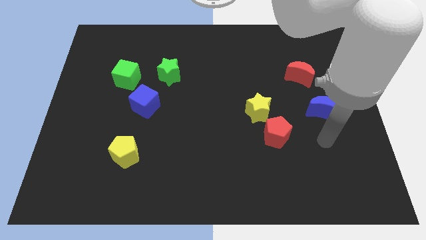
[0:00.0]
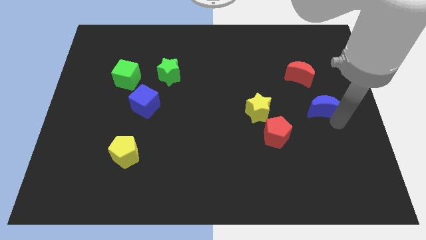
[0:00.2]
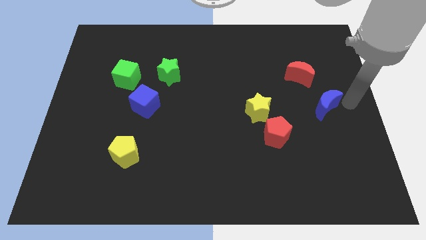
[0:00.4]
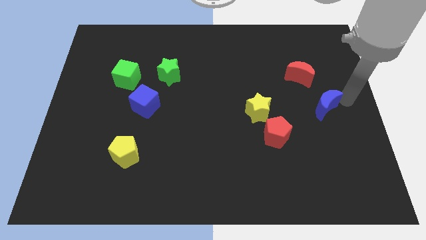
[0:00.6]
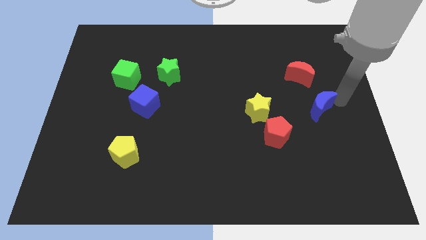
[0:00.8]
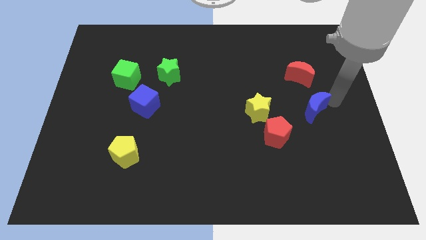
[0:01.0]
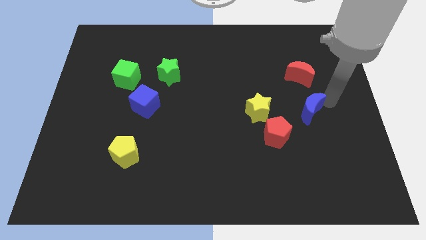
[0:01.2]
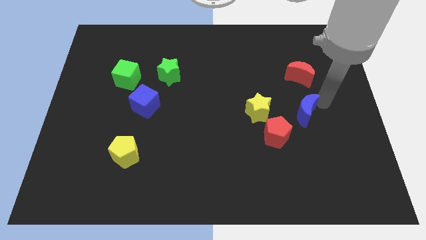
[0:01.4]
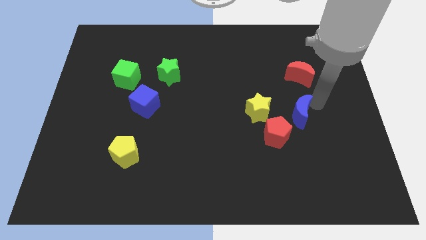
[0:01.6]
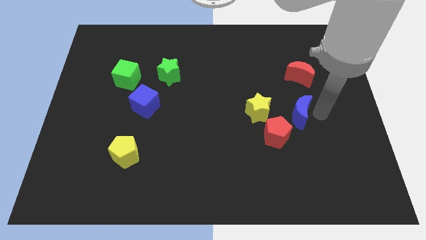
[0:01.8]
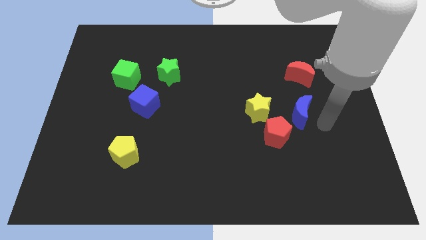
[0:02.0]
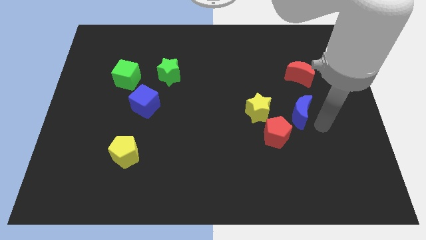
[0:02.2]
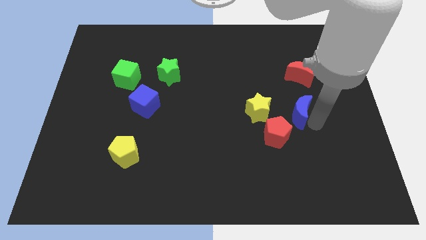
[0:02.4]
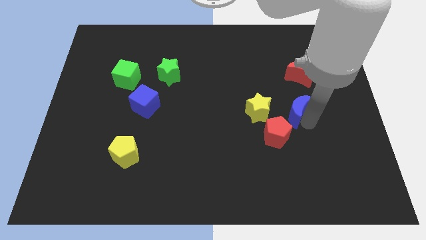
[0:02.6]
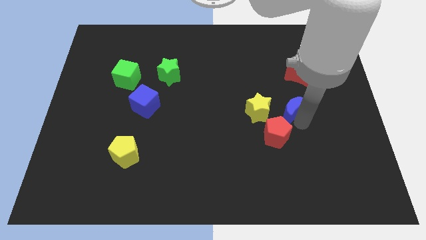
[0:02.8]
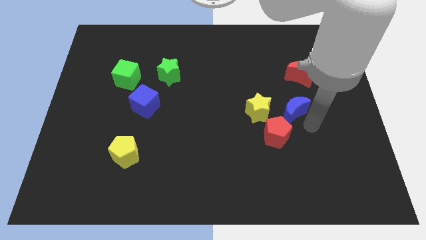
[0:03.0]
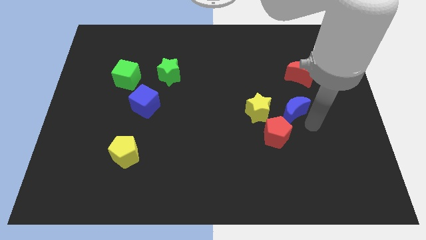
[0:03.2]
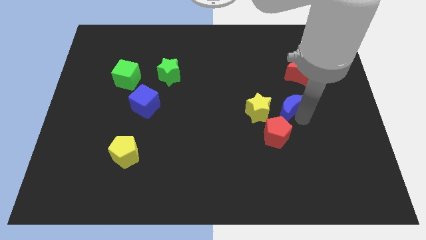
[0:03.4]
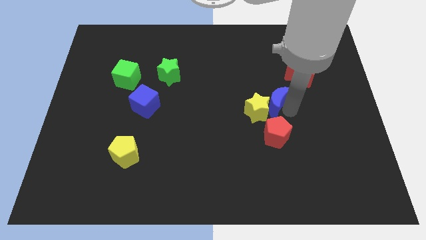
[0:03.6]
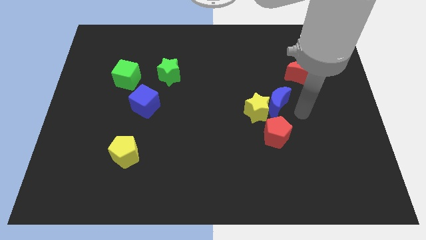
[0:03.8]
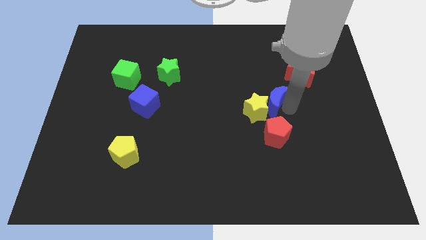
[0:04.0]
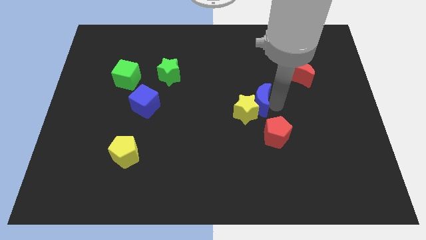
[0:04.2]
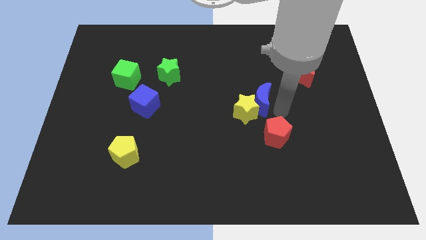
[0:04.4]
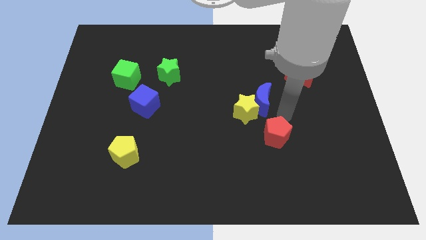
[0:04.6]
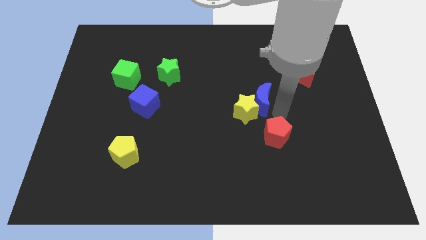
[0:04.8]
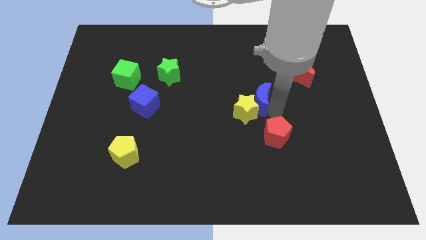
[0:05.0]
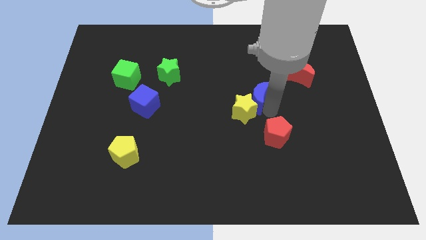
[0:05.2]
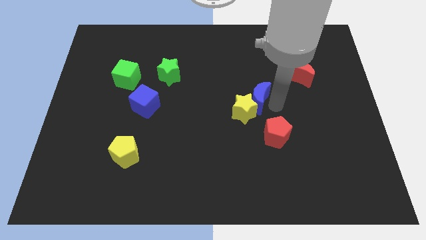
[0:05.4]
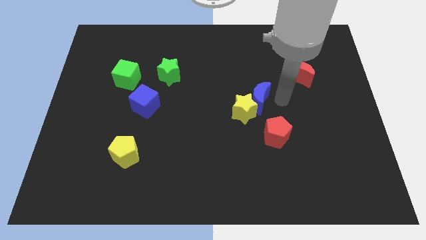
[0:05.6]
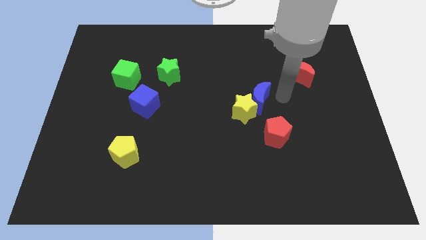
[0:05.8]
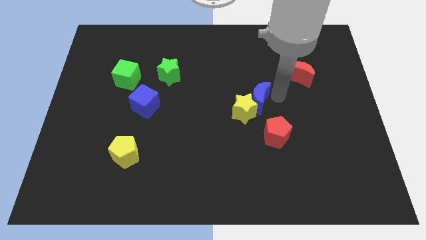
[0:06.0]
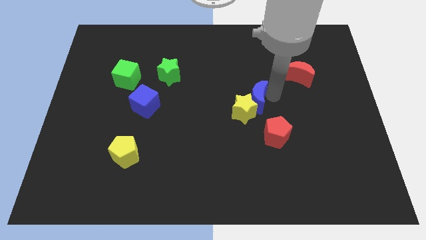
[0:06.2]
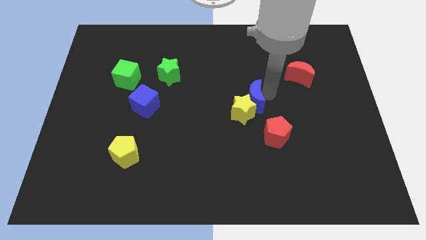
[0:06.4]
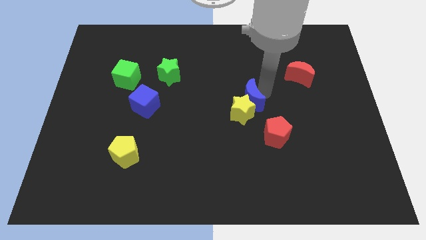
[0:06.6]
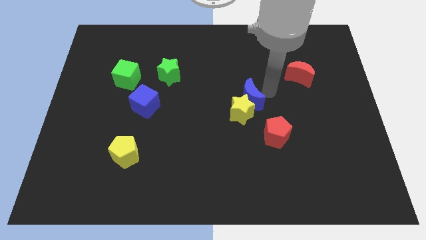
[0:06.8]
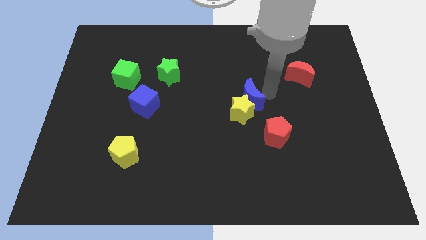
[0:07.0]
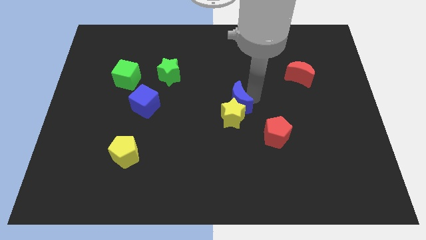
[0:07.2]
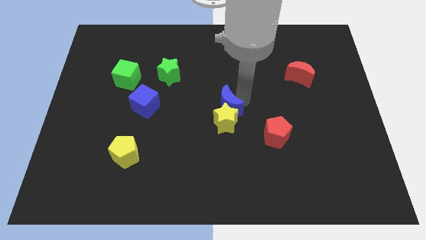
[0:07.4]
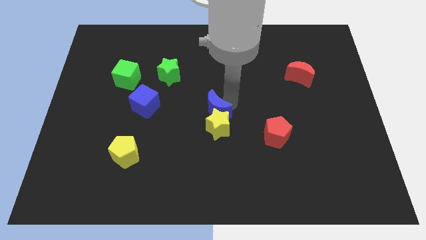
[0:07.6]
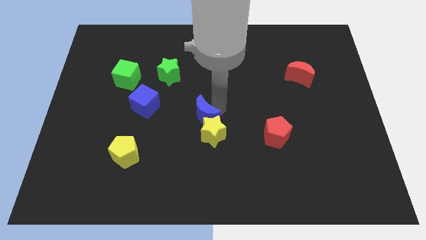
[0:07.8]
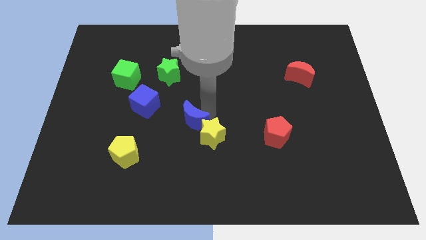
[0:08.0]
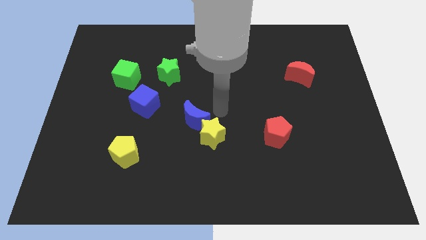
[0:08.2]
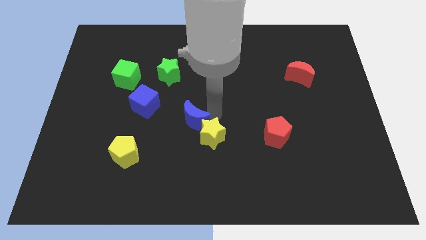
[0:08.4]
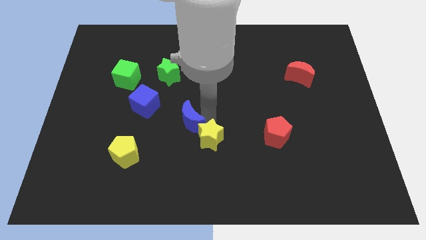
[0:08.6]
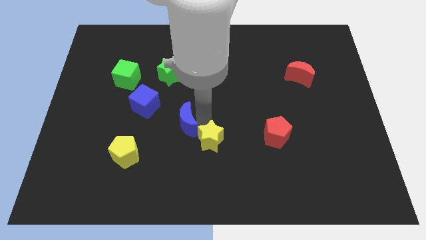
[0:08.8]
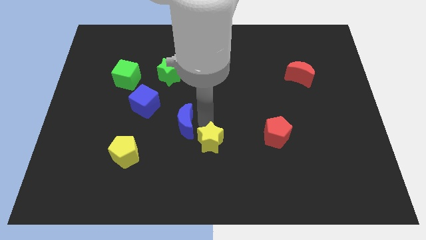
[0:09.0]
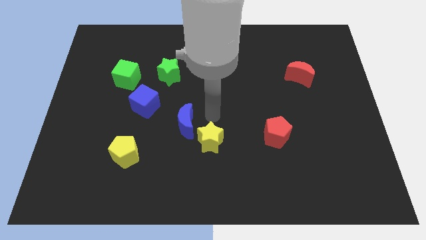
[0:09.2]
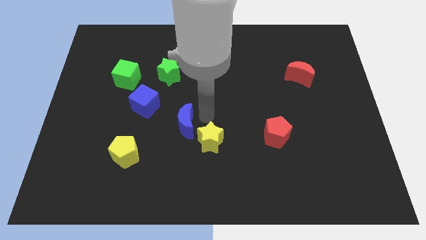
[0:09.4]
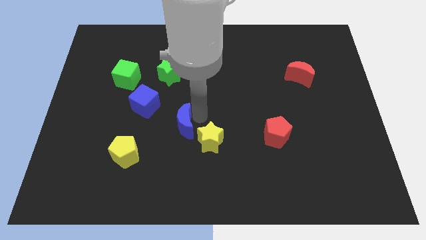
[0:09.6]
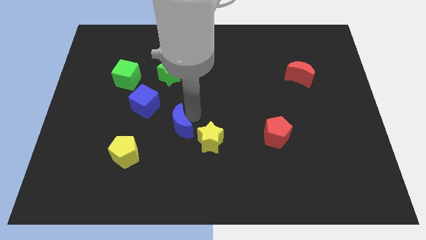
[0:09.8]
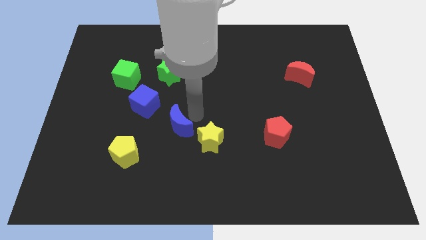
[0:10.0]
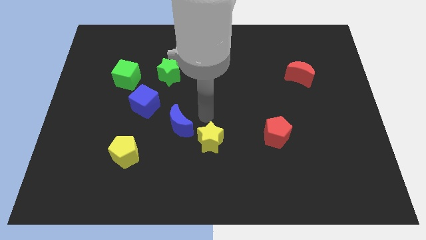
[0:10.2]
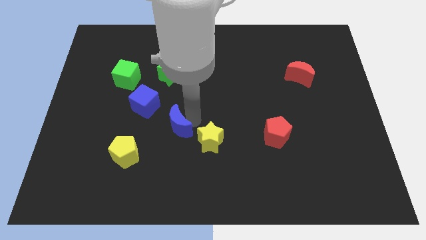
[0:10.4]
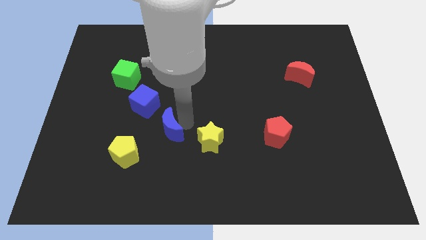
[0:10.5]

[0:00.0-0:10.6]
move the blue moon to the top right of the yellow pentagon

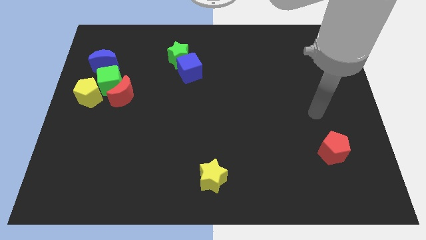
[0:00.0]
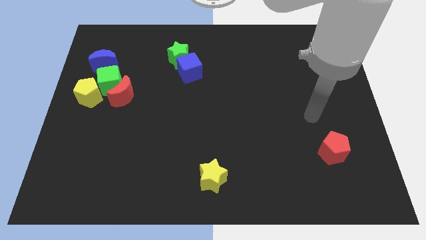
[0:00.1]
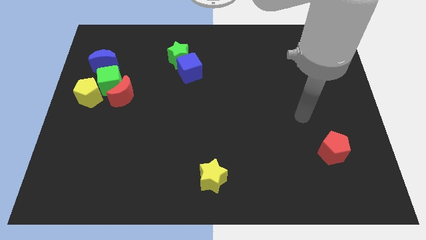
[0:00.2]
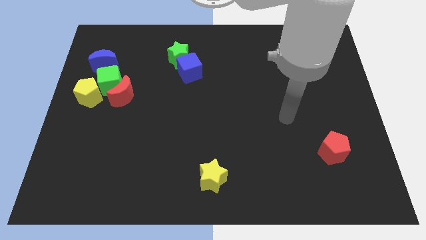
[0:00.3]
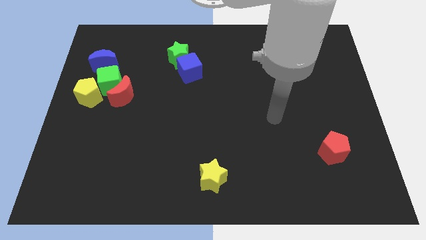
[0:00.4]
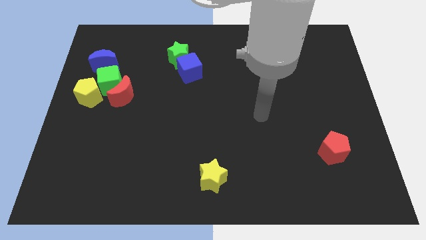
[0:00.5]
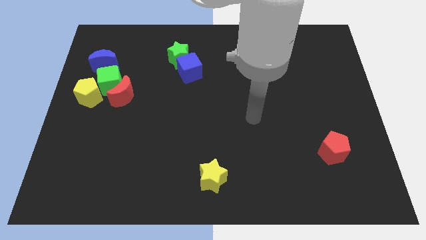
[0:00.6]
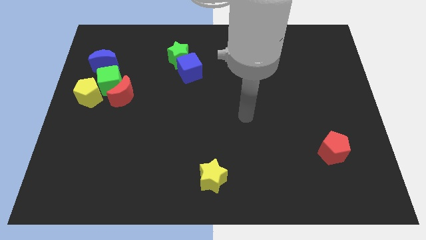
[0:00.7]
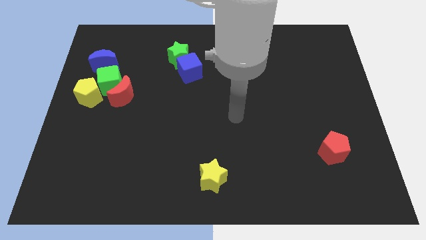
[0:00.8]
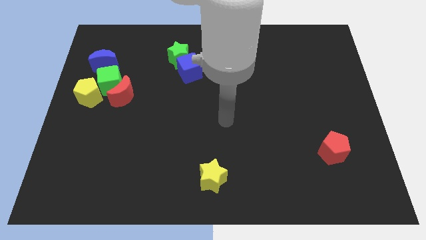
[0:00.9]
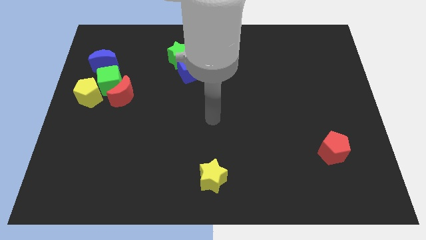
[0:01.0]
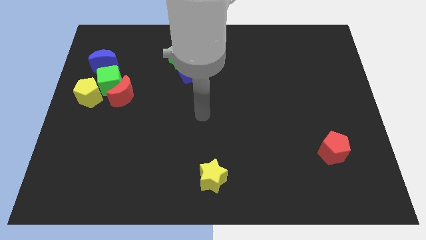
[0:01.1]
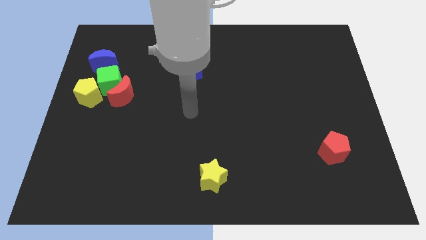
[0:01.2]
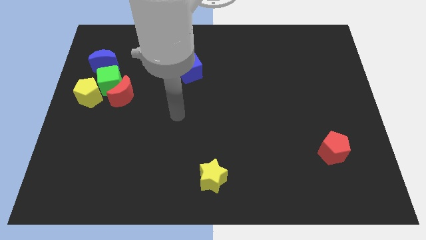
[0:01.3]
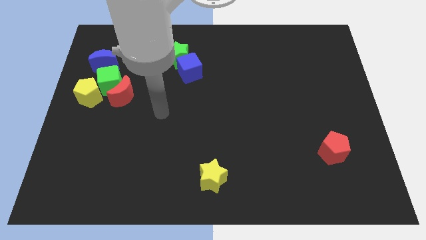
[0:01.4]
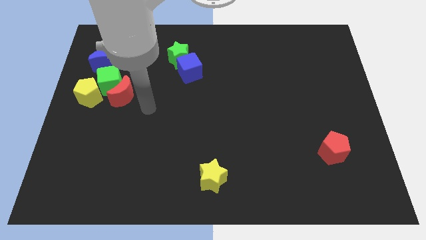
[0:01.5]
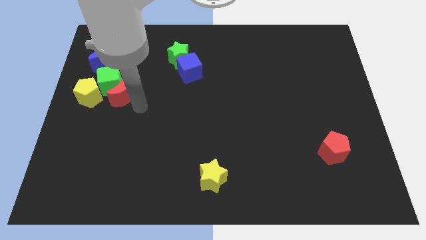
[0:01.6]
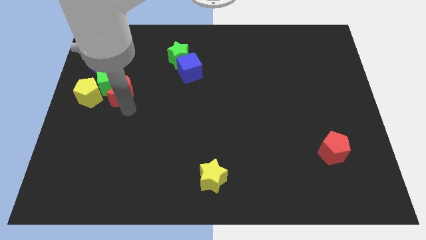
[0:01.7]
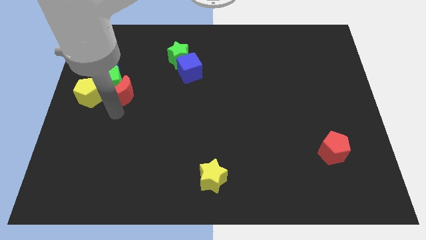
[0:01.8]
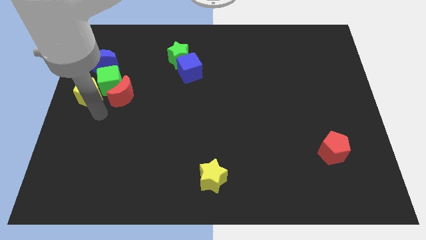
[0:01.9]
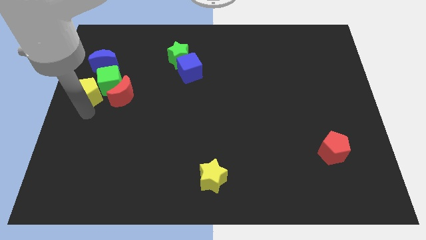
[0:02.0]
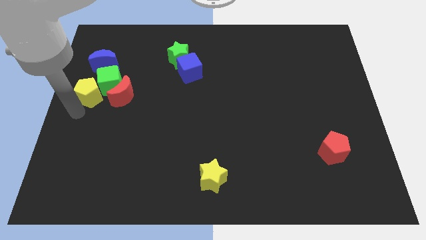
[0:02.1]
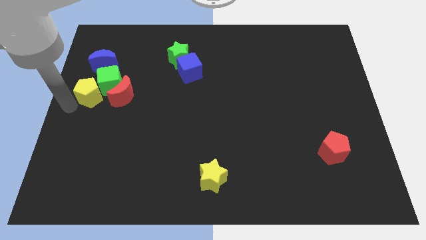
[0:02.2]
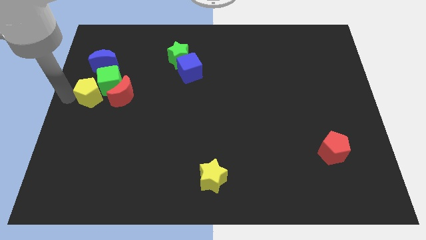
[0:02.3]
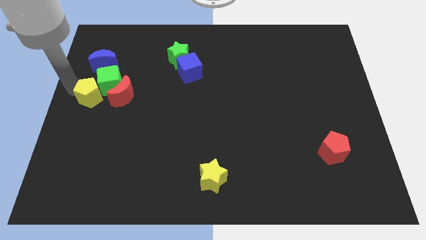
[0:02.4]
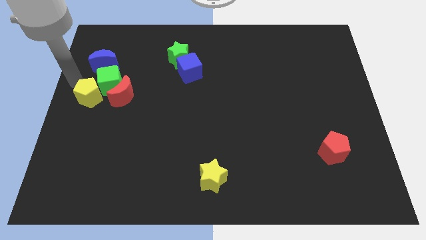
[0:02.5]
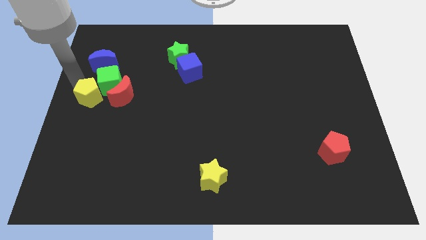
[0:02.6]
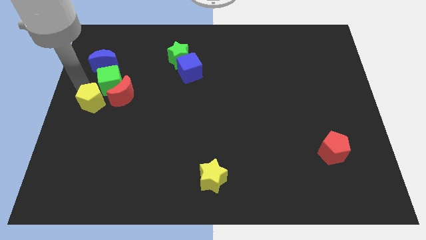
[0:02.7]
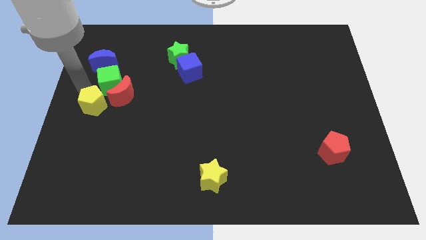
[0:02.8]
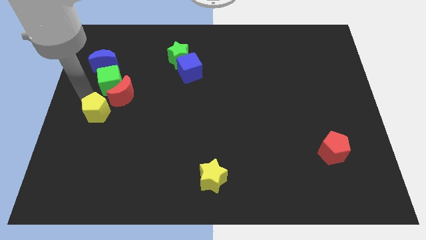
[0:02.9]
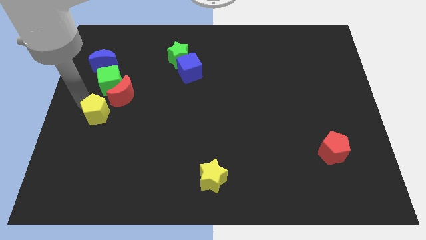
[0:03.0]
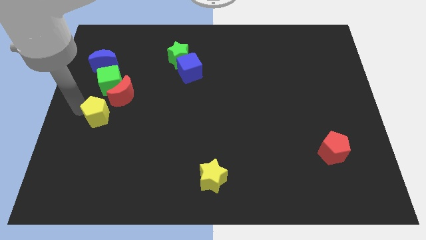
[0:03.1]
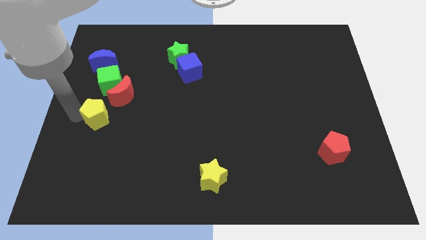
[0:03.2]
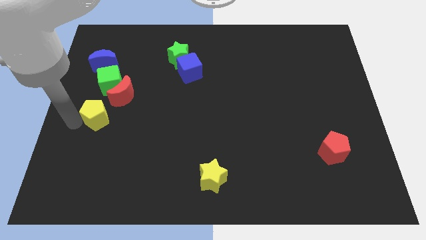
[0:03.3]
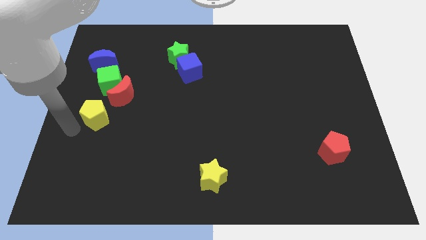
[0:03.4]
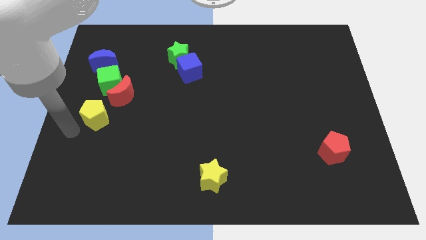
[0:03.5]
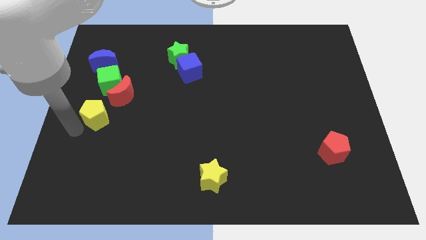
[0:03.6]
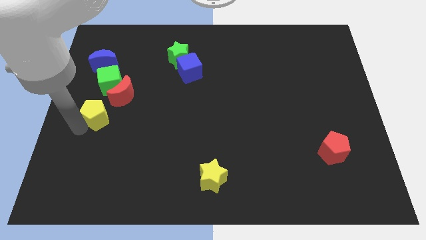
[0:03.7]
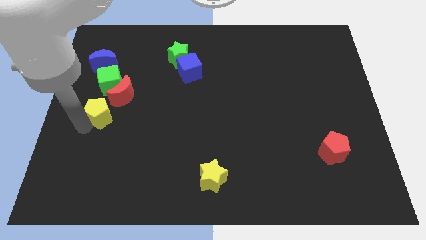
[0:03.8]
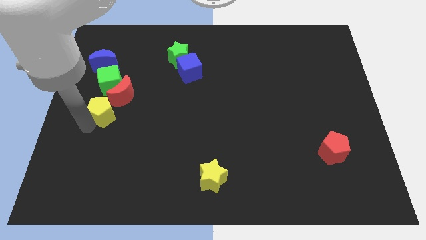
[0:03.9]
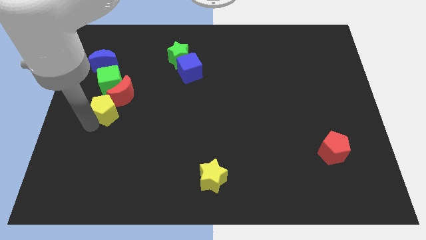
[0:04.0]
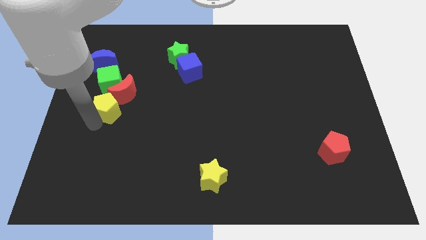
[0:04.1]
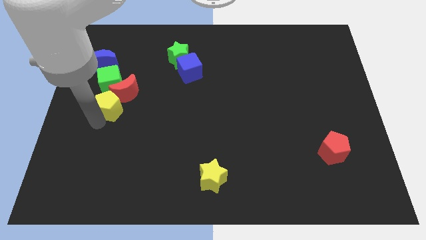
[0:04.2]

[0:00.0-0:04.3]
put the yellow pentagon diagonally down and to the right of the green cube
